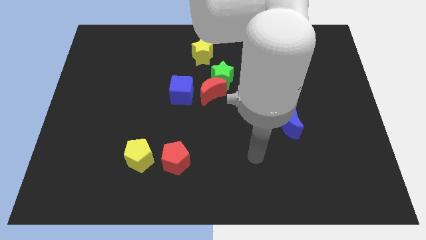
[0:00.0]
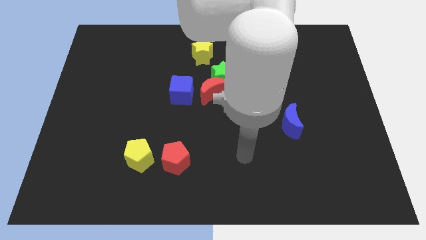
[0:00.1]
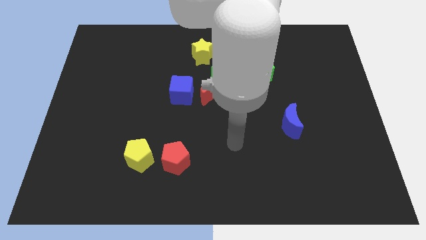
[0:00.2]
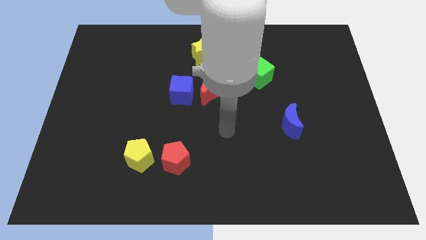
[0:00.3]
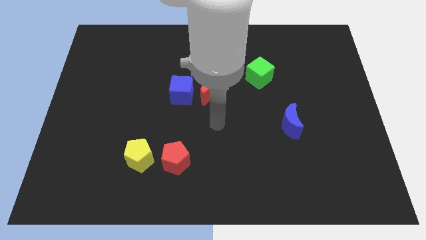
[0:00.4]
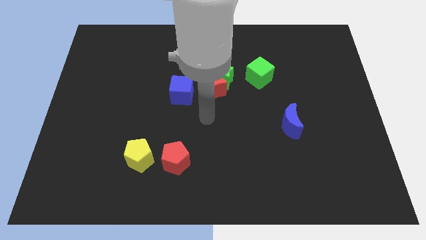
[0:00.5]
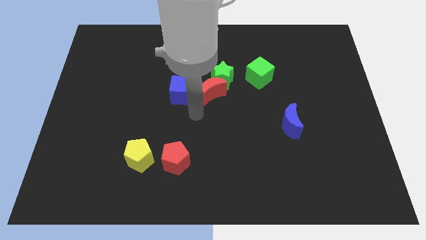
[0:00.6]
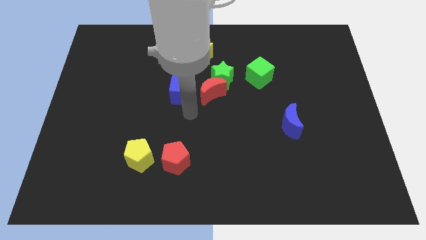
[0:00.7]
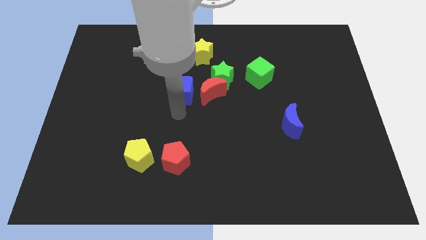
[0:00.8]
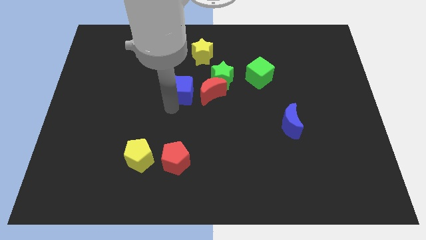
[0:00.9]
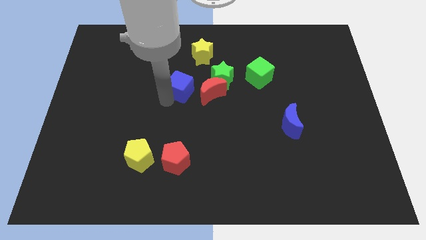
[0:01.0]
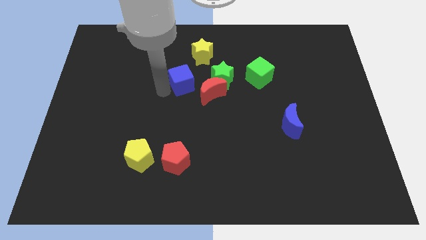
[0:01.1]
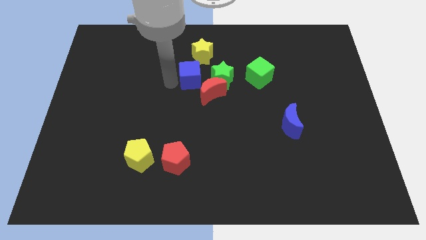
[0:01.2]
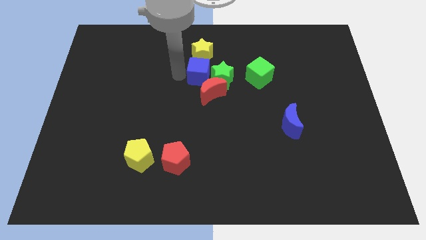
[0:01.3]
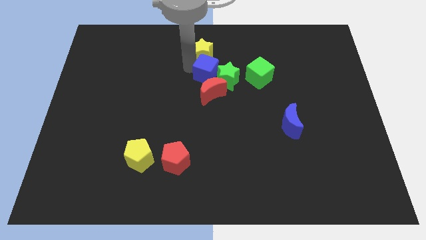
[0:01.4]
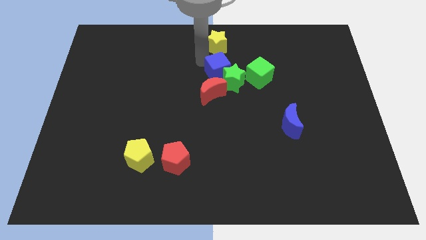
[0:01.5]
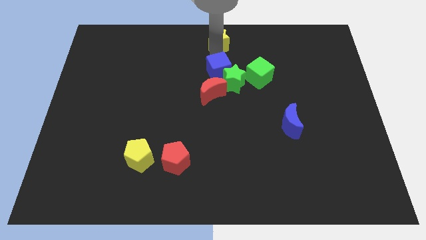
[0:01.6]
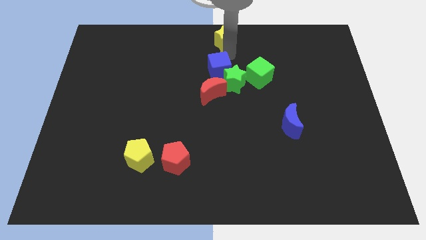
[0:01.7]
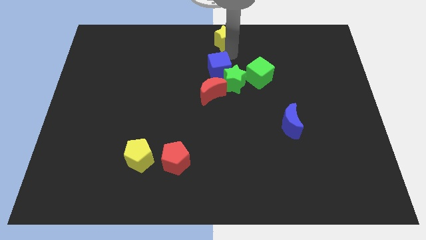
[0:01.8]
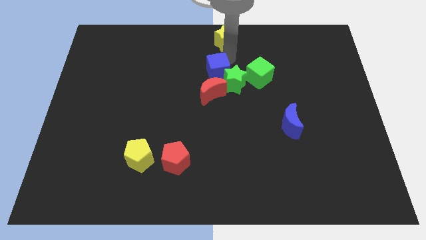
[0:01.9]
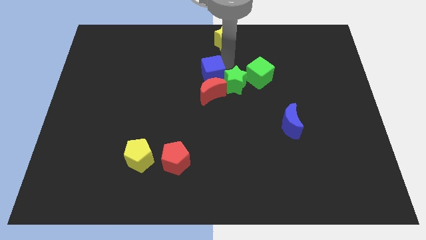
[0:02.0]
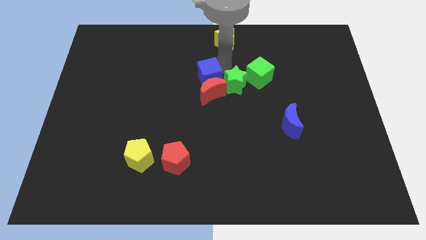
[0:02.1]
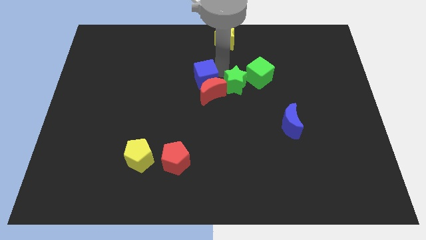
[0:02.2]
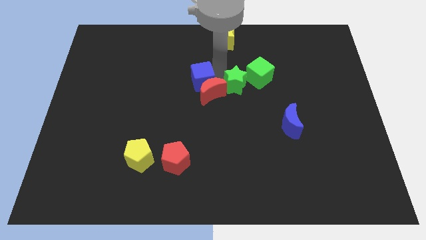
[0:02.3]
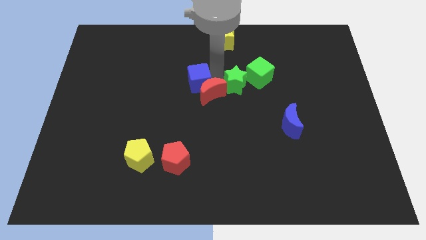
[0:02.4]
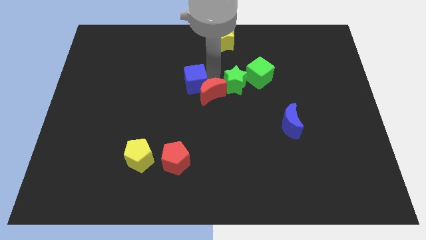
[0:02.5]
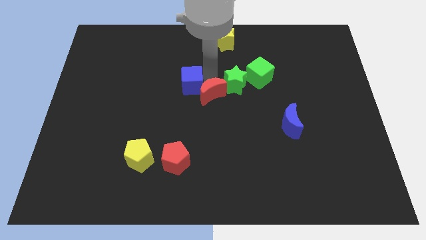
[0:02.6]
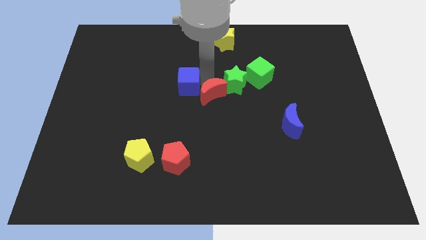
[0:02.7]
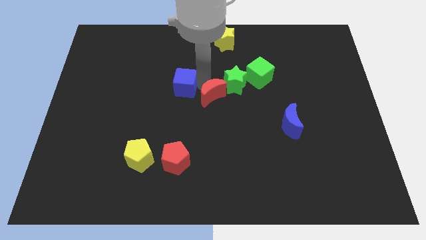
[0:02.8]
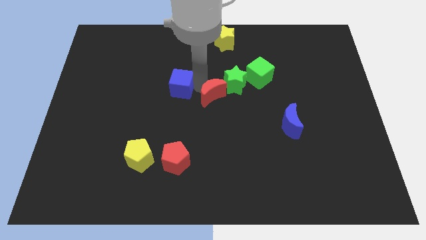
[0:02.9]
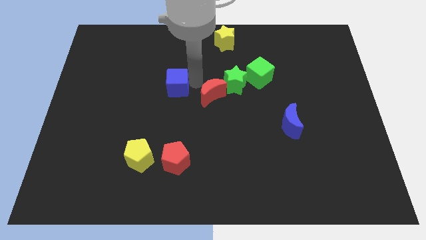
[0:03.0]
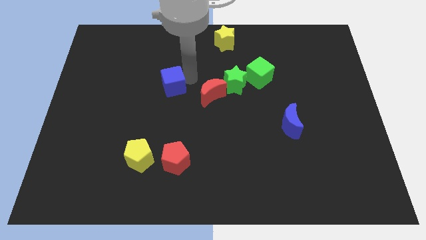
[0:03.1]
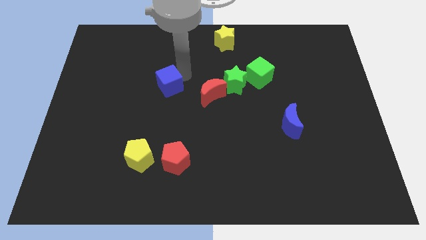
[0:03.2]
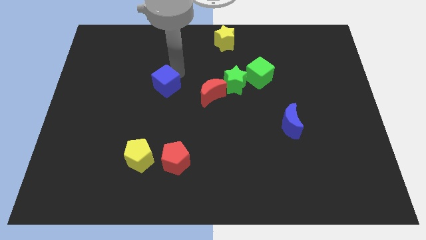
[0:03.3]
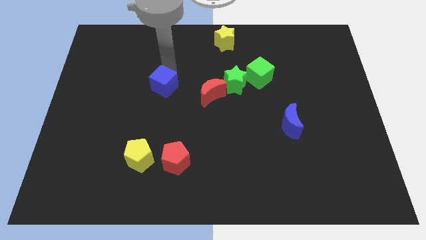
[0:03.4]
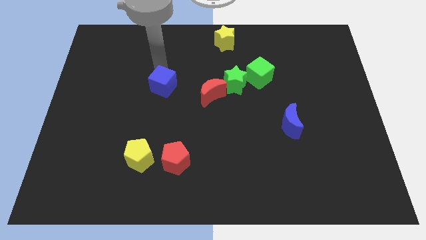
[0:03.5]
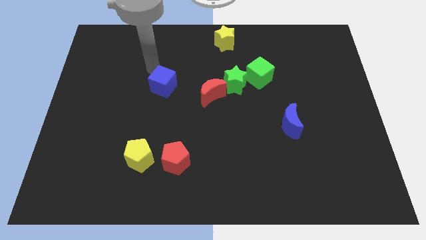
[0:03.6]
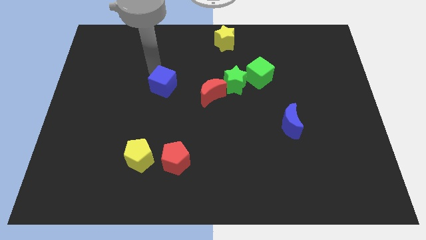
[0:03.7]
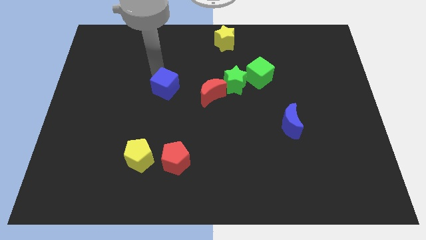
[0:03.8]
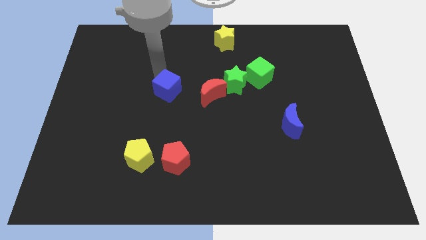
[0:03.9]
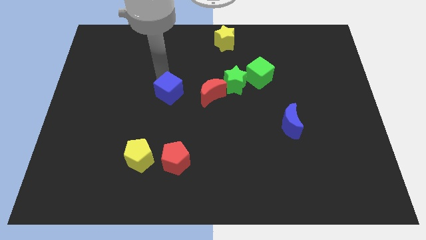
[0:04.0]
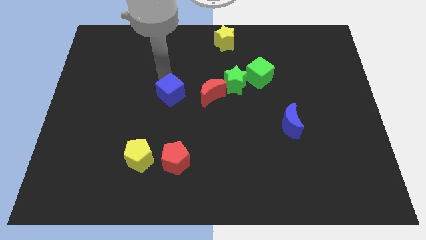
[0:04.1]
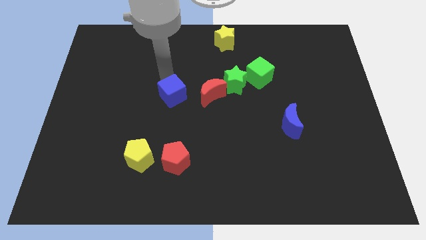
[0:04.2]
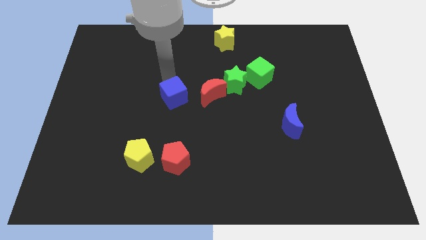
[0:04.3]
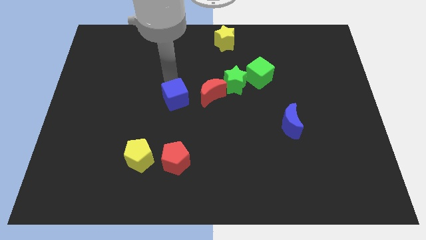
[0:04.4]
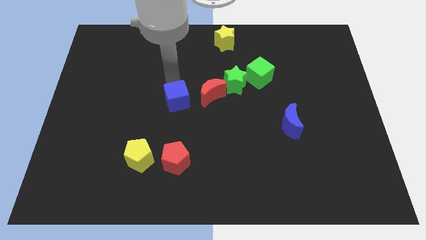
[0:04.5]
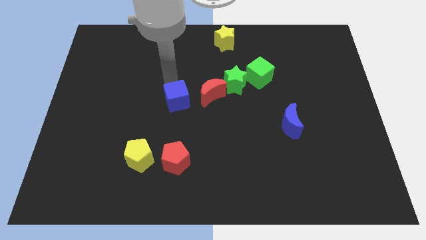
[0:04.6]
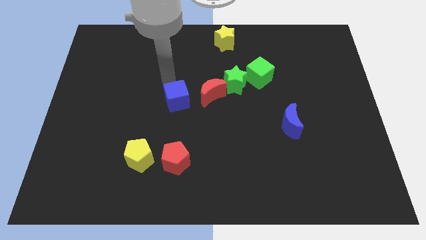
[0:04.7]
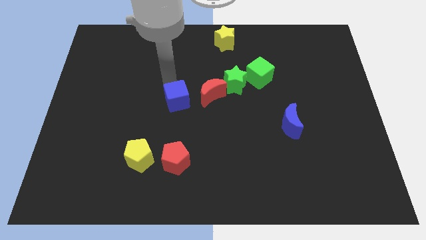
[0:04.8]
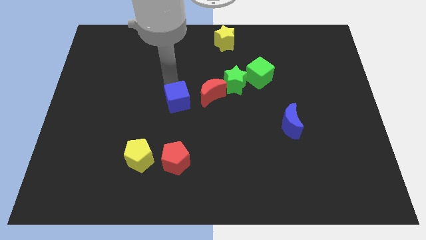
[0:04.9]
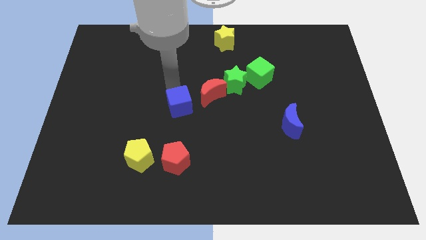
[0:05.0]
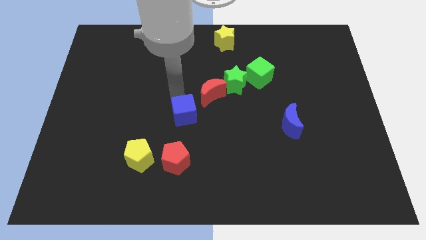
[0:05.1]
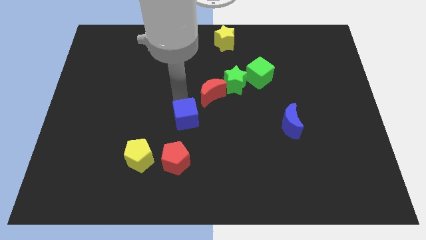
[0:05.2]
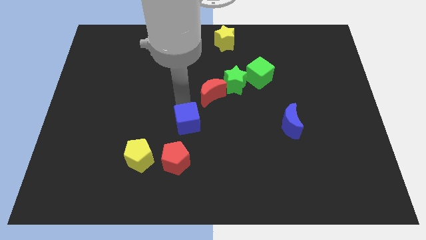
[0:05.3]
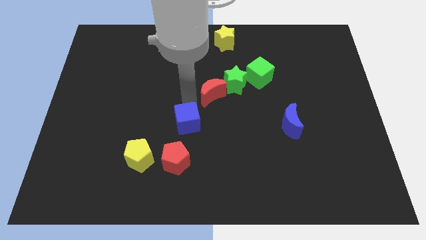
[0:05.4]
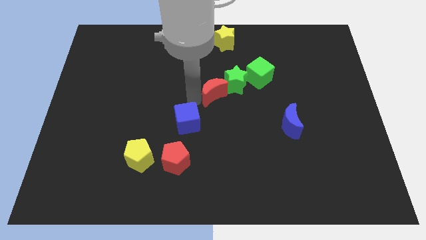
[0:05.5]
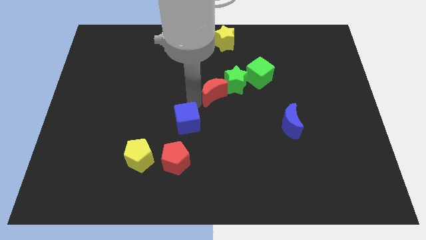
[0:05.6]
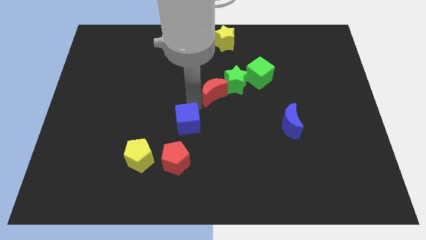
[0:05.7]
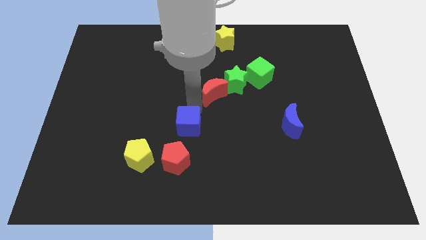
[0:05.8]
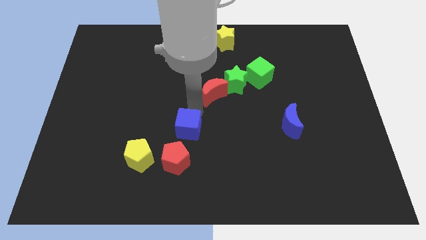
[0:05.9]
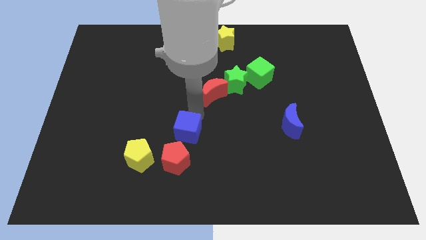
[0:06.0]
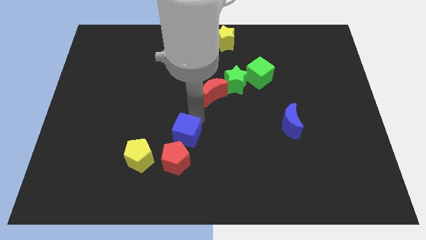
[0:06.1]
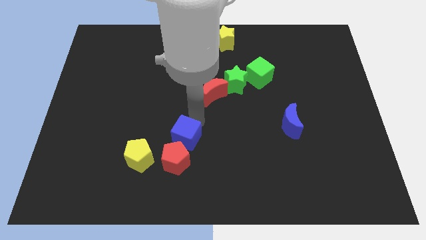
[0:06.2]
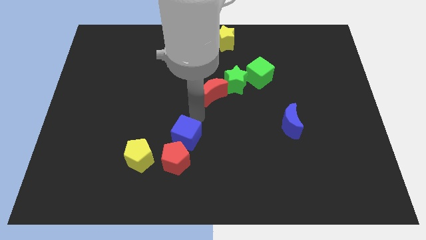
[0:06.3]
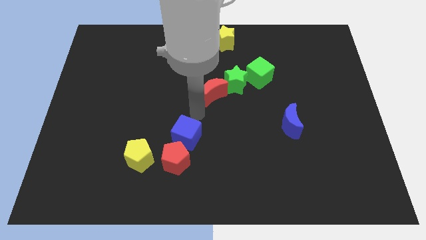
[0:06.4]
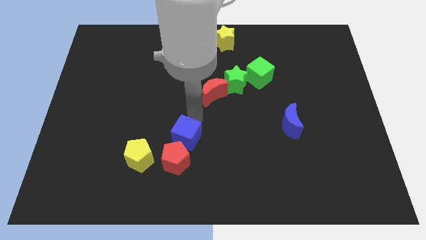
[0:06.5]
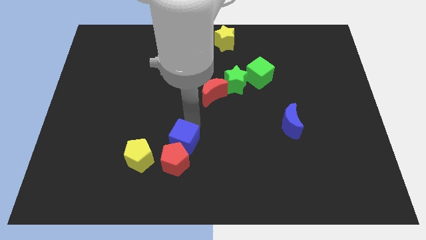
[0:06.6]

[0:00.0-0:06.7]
push the blue cube towards the red pentagon

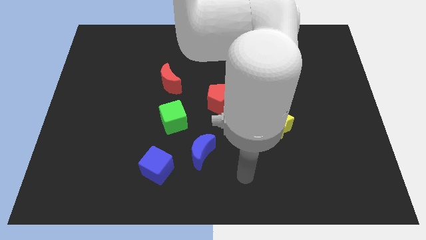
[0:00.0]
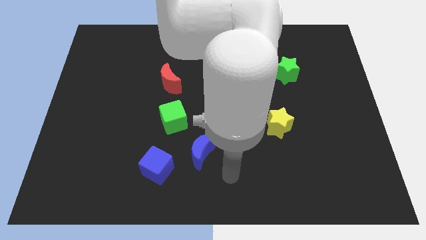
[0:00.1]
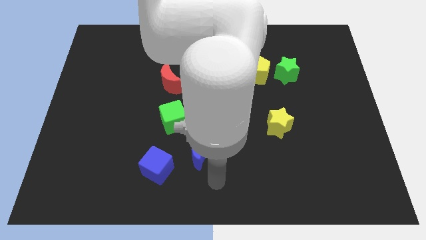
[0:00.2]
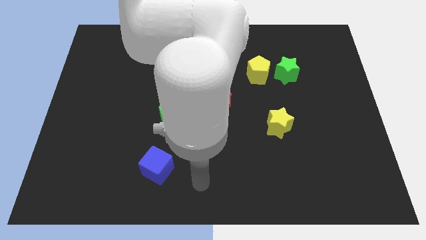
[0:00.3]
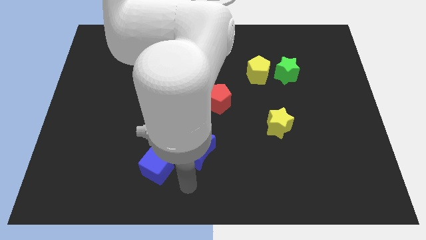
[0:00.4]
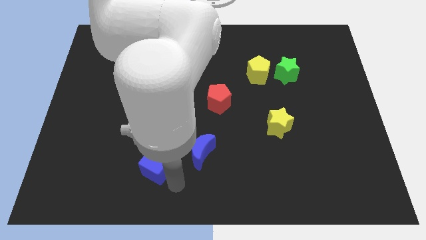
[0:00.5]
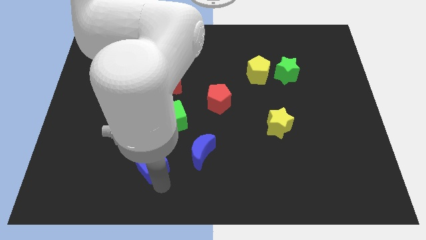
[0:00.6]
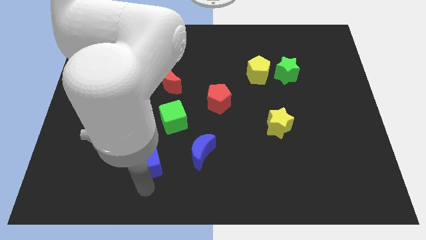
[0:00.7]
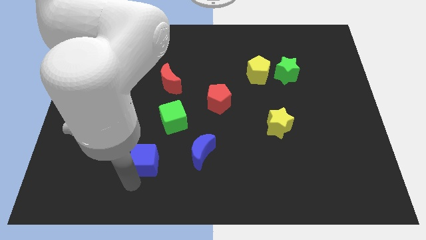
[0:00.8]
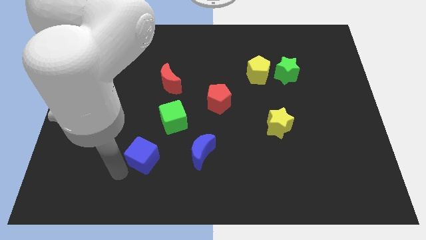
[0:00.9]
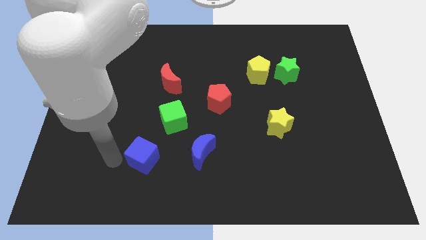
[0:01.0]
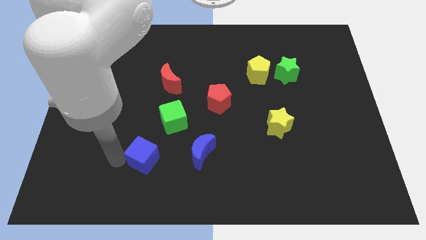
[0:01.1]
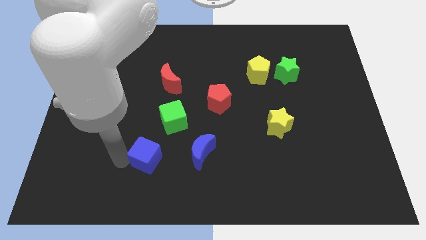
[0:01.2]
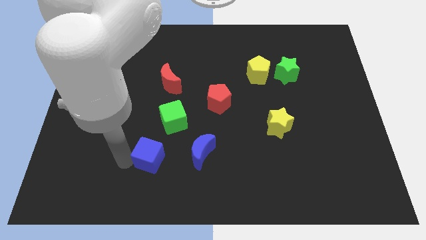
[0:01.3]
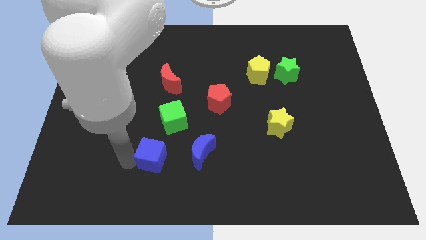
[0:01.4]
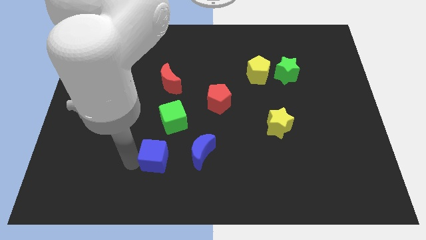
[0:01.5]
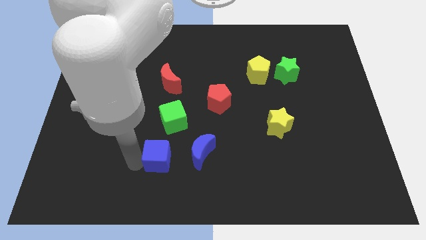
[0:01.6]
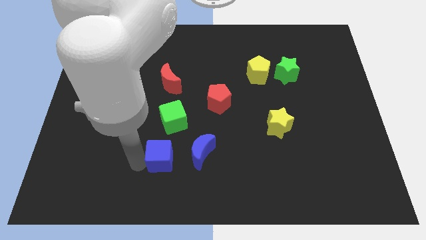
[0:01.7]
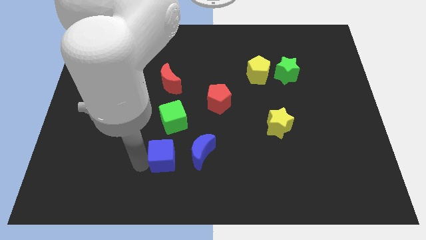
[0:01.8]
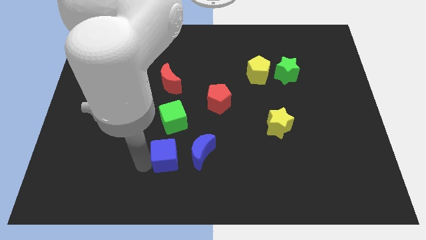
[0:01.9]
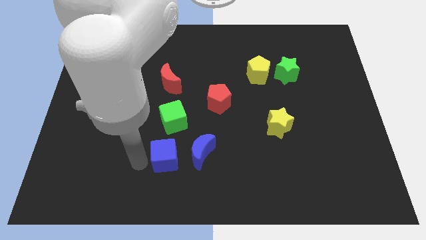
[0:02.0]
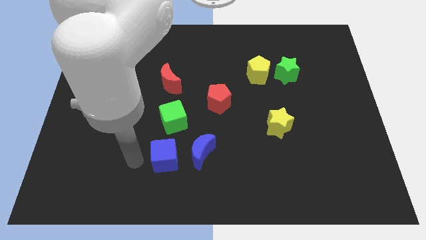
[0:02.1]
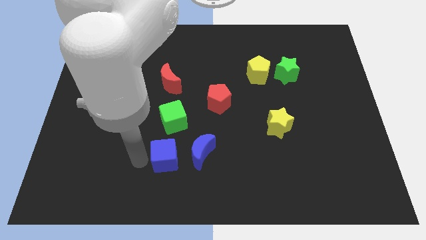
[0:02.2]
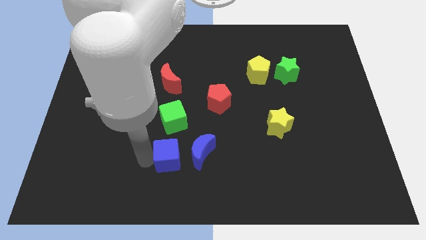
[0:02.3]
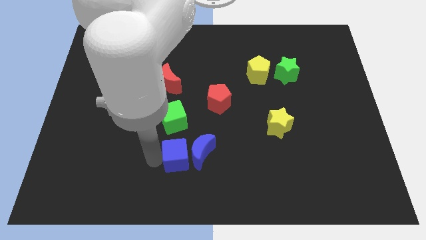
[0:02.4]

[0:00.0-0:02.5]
slide the blue cube next to the blue moon
